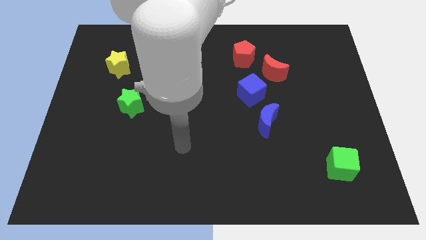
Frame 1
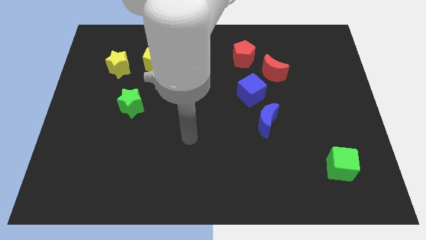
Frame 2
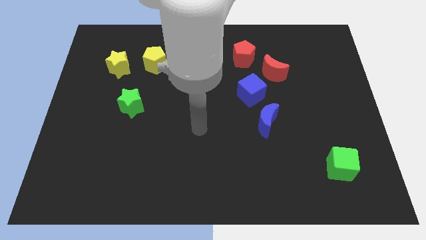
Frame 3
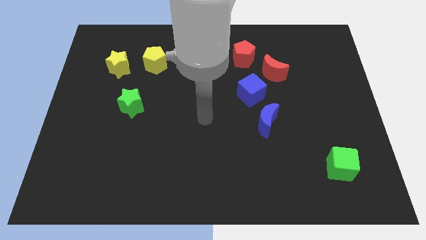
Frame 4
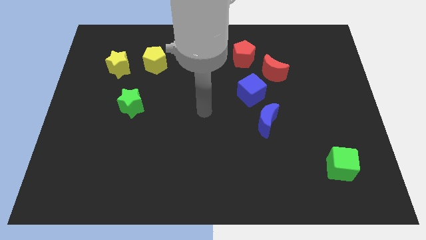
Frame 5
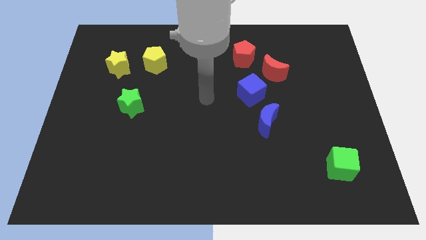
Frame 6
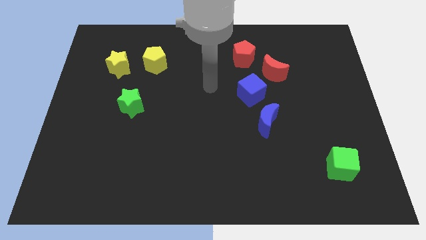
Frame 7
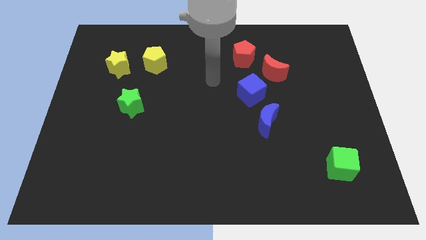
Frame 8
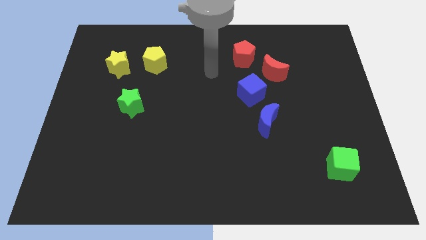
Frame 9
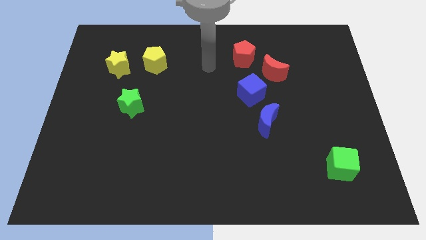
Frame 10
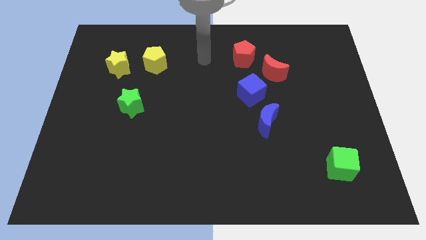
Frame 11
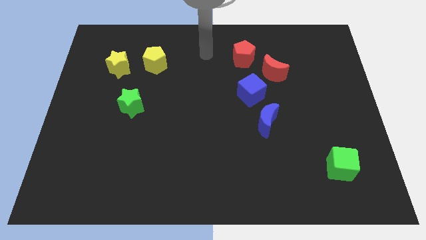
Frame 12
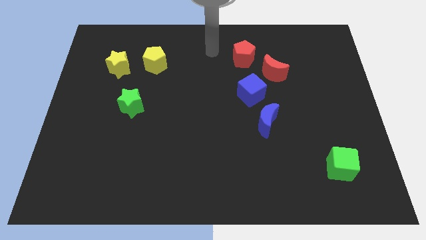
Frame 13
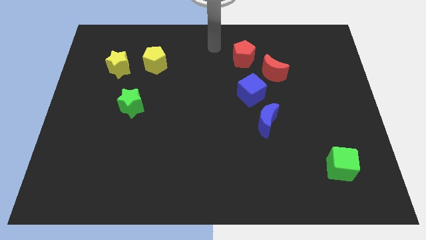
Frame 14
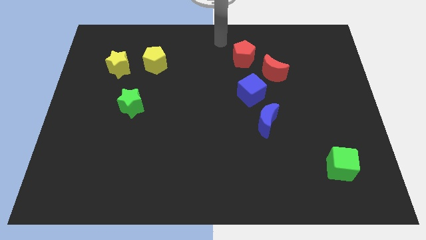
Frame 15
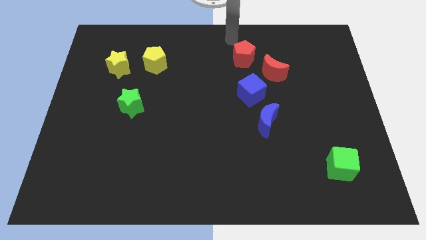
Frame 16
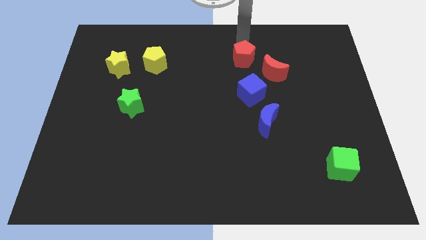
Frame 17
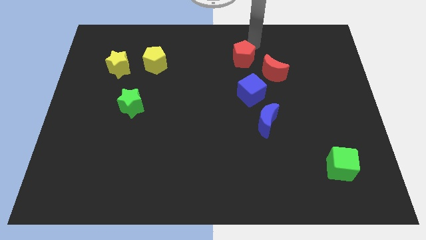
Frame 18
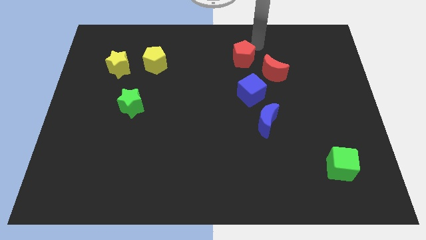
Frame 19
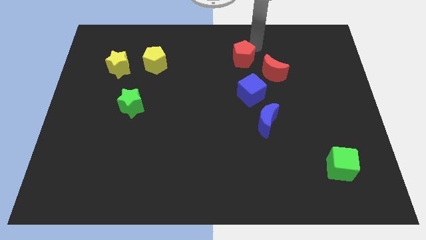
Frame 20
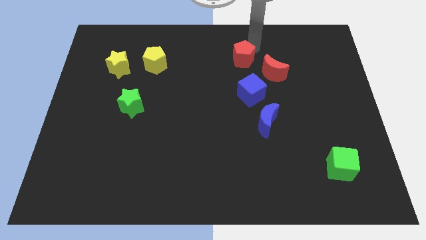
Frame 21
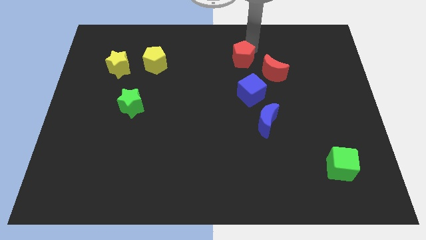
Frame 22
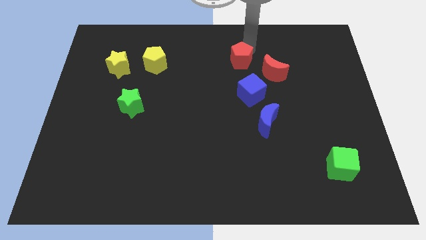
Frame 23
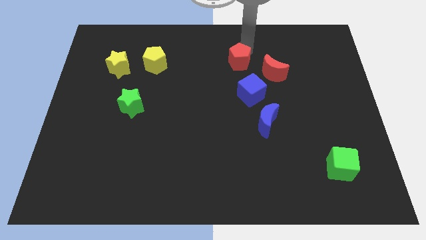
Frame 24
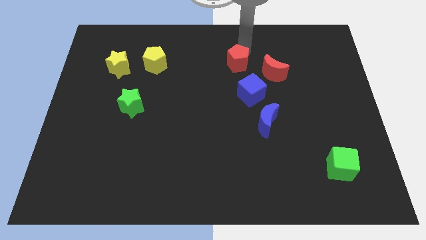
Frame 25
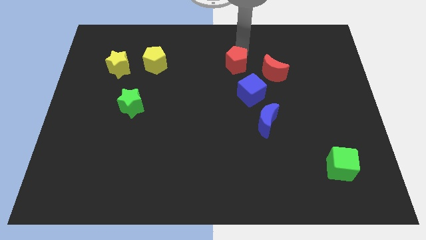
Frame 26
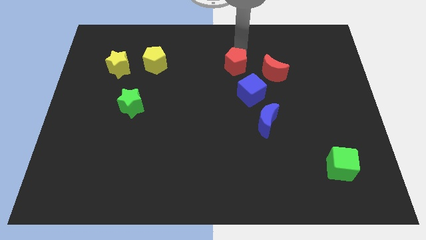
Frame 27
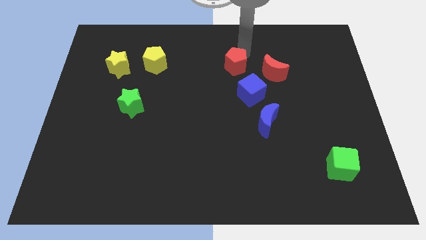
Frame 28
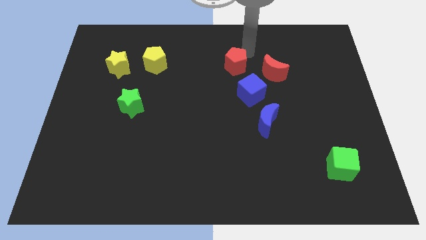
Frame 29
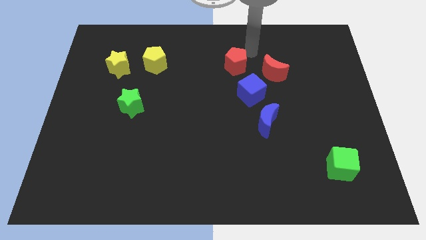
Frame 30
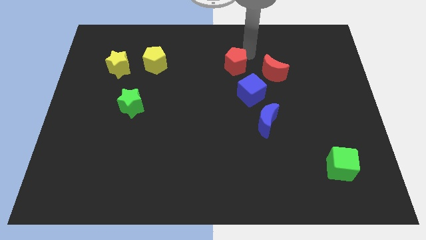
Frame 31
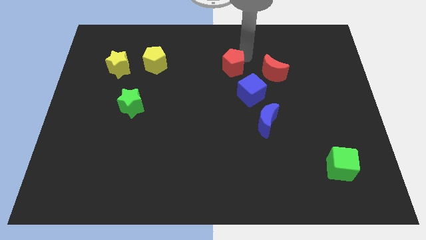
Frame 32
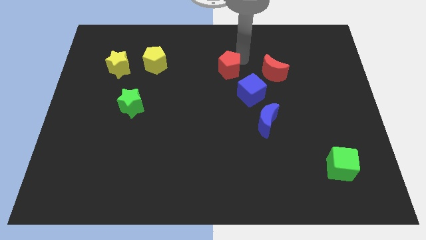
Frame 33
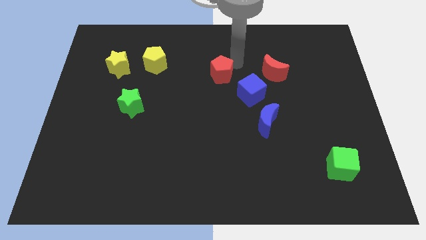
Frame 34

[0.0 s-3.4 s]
move the red pentagon downwards and left a little bit

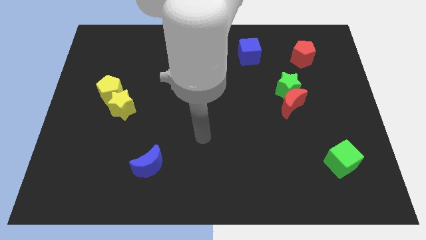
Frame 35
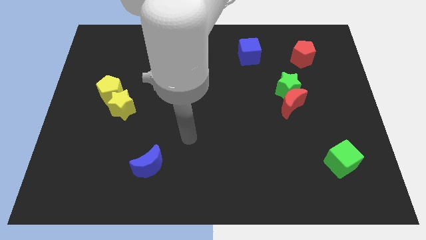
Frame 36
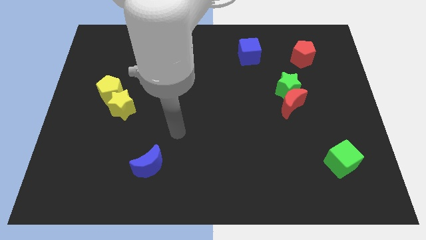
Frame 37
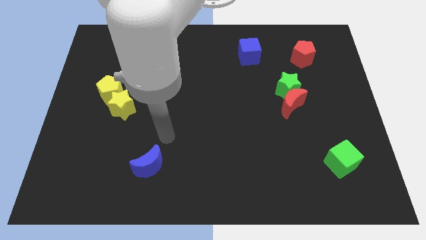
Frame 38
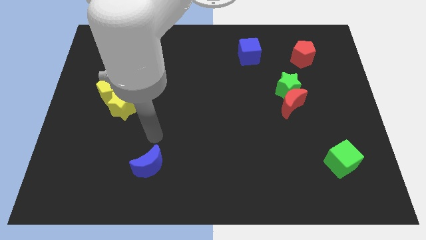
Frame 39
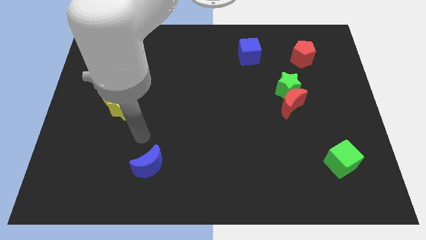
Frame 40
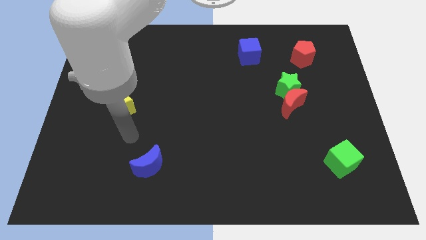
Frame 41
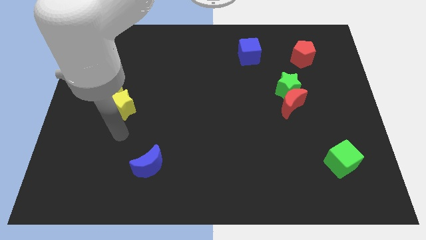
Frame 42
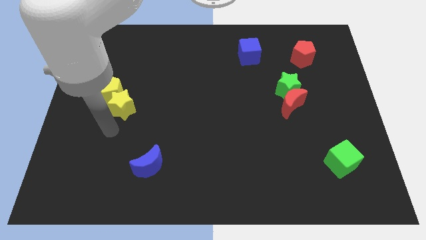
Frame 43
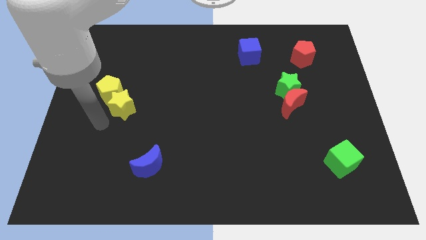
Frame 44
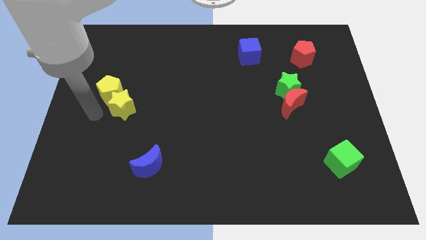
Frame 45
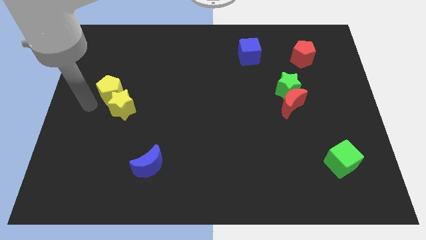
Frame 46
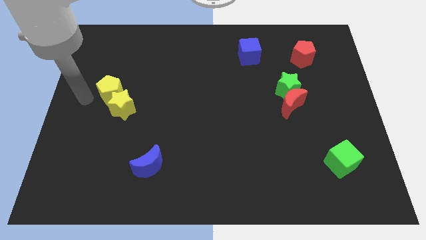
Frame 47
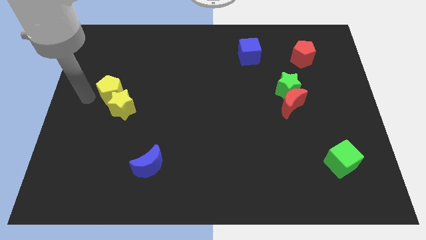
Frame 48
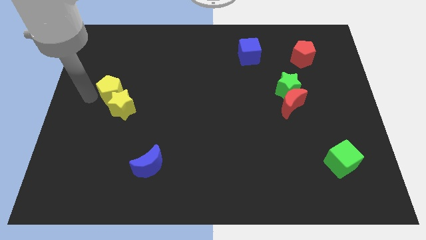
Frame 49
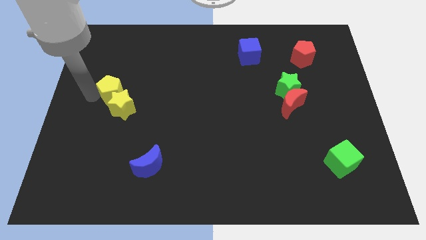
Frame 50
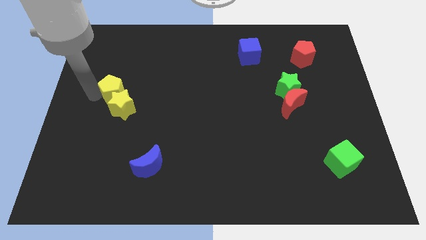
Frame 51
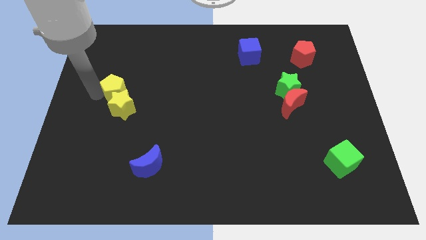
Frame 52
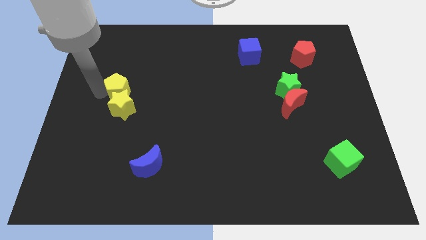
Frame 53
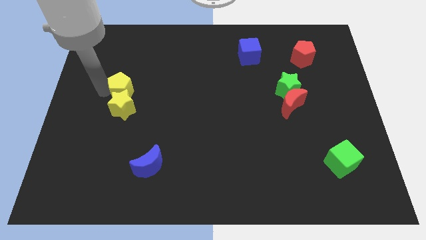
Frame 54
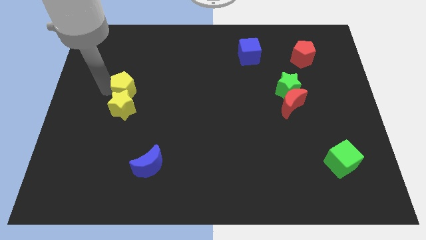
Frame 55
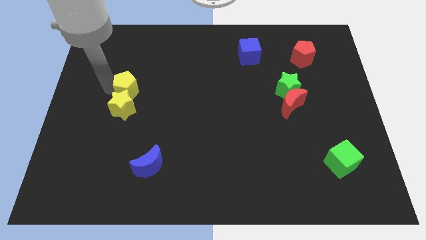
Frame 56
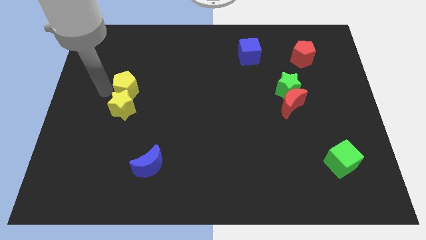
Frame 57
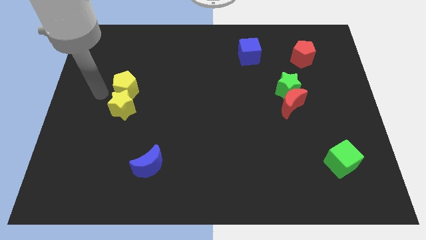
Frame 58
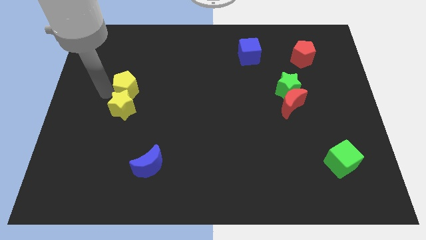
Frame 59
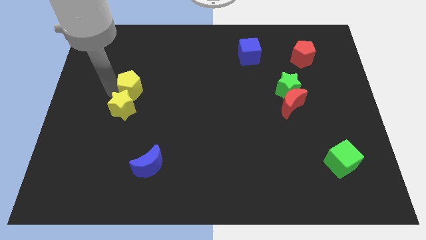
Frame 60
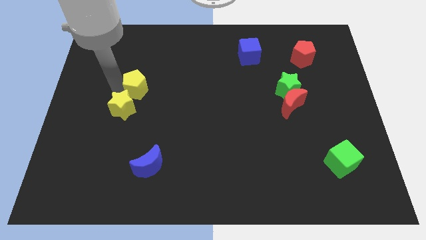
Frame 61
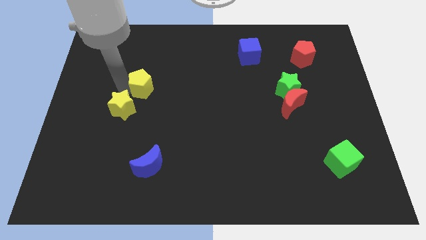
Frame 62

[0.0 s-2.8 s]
slightly move the yellow pentagon right

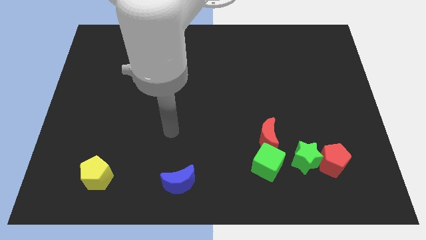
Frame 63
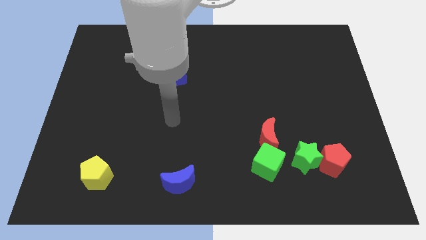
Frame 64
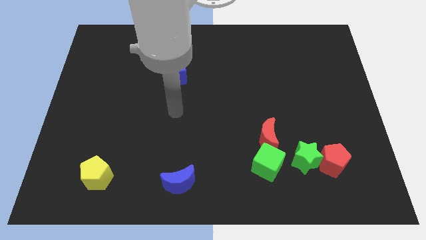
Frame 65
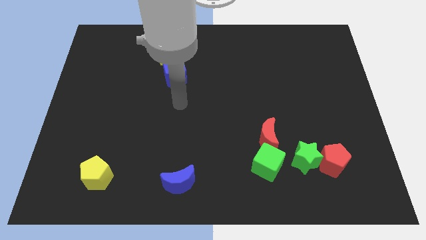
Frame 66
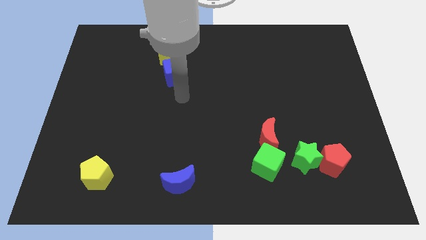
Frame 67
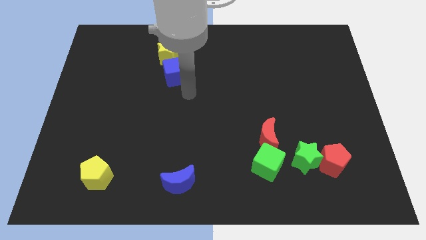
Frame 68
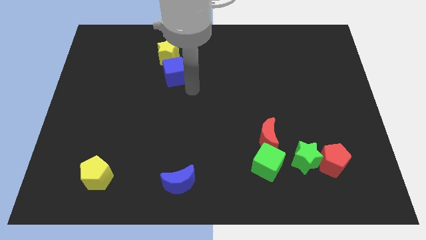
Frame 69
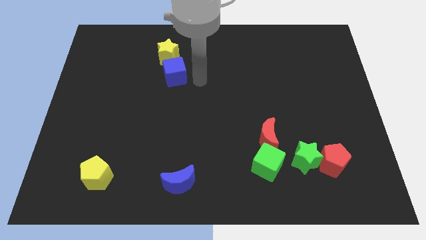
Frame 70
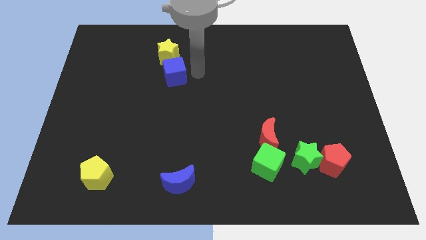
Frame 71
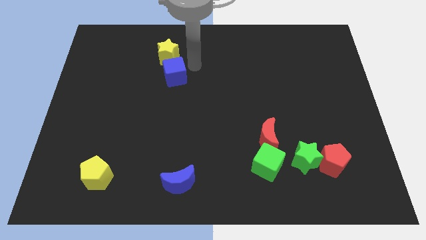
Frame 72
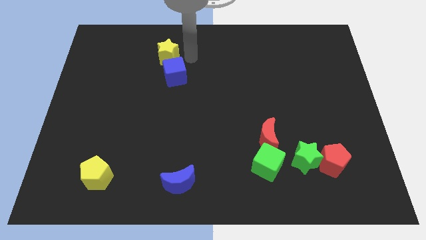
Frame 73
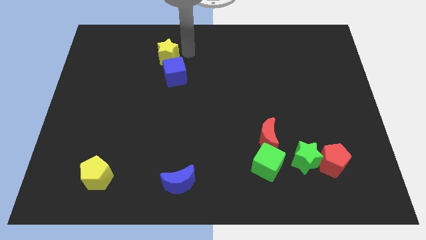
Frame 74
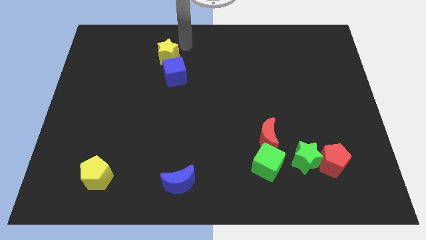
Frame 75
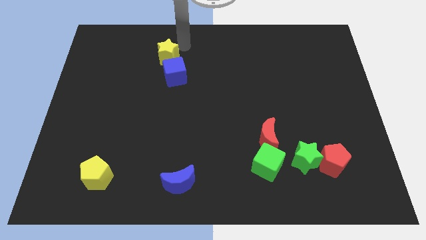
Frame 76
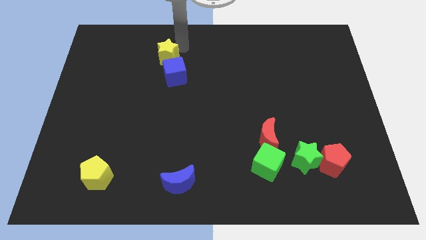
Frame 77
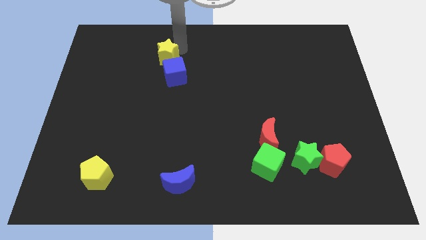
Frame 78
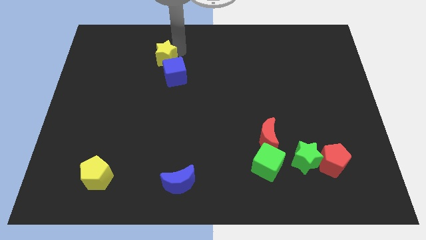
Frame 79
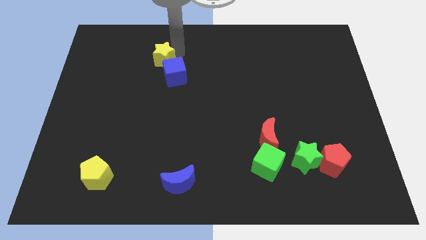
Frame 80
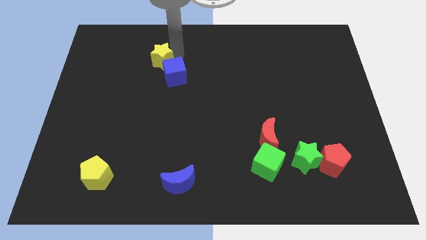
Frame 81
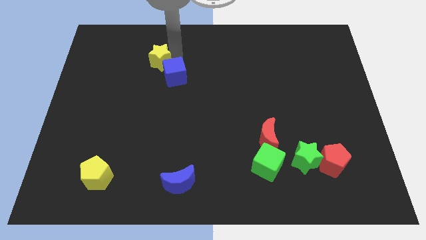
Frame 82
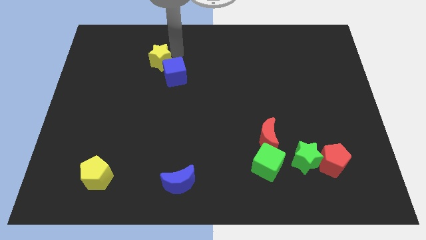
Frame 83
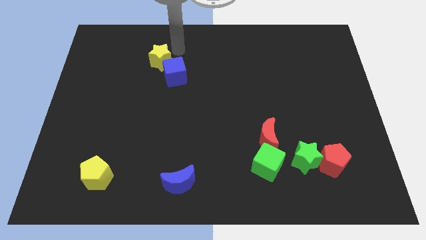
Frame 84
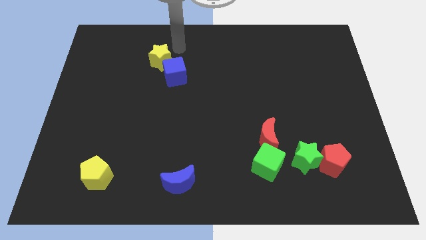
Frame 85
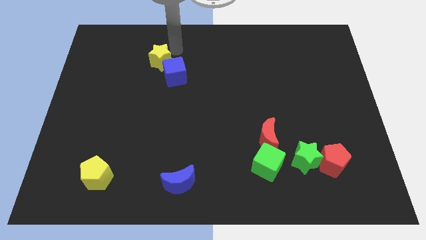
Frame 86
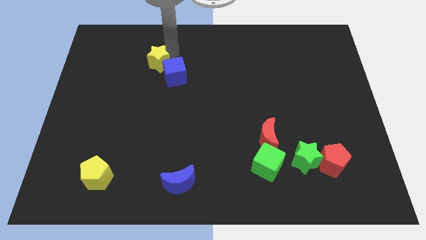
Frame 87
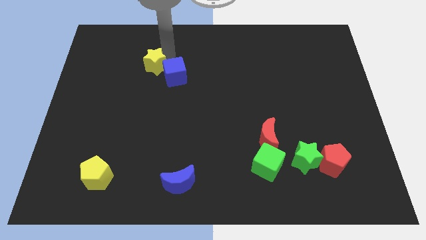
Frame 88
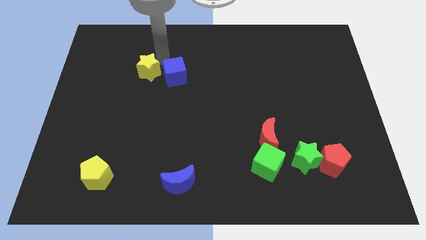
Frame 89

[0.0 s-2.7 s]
push the yellow star downwards and to the left diagonally a bit
